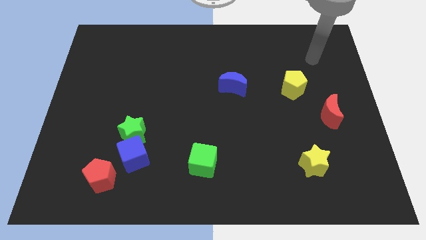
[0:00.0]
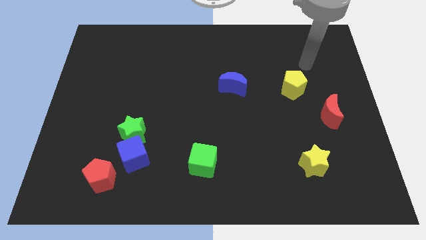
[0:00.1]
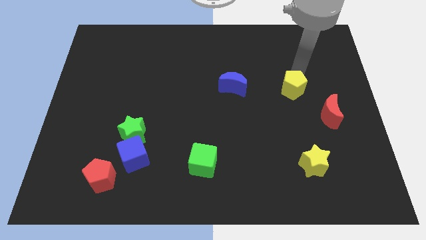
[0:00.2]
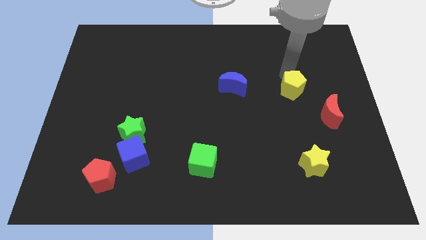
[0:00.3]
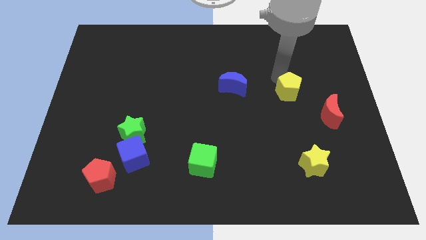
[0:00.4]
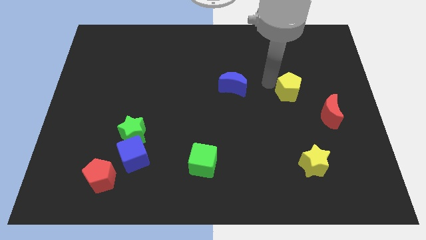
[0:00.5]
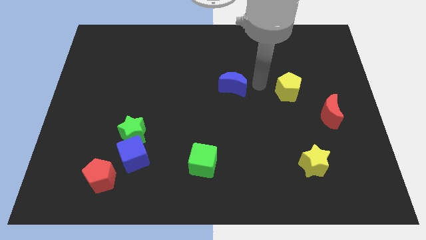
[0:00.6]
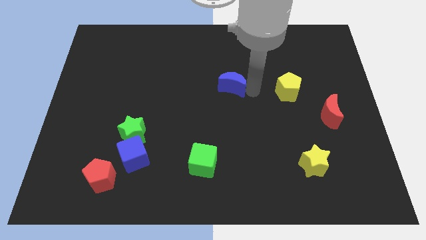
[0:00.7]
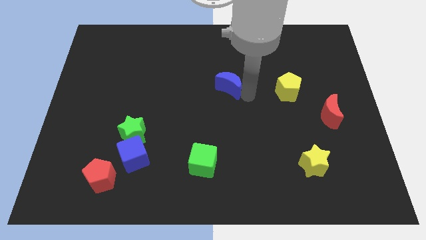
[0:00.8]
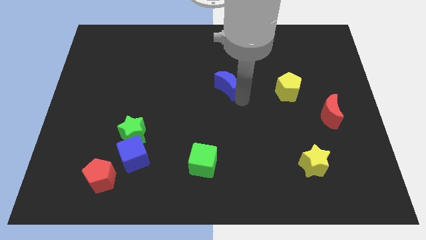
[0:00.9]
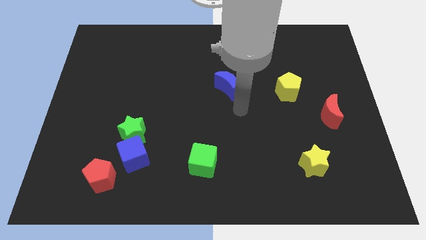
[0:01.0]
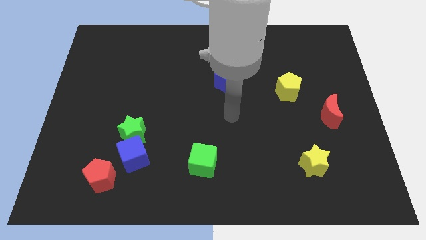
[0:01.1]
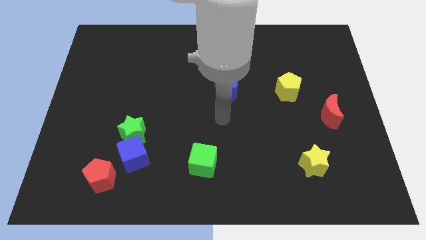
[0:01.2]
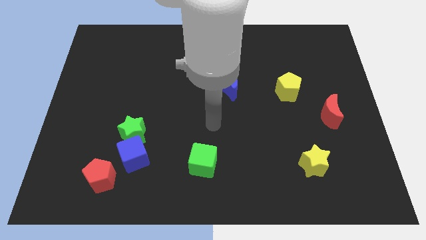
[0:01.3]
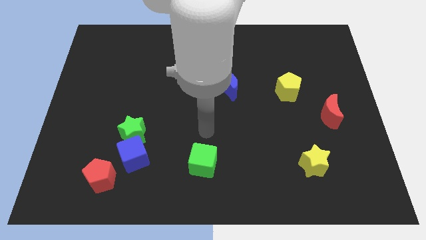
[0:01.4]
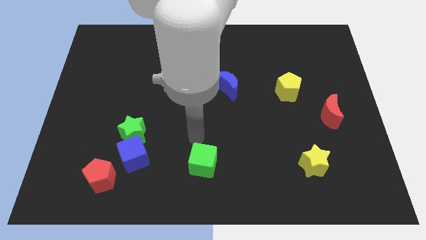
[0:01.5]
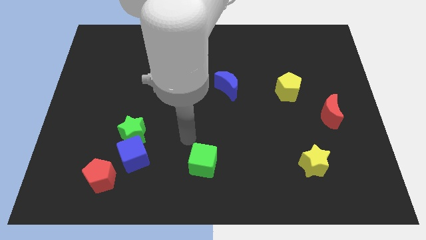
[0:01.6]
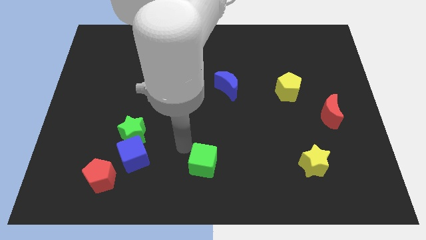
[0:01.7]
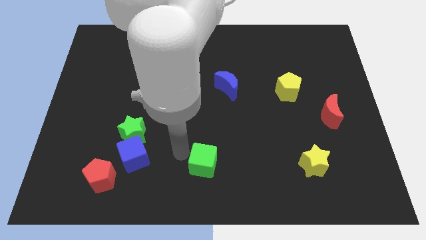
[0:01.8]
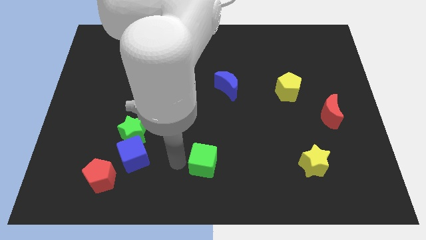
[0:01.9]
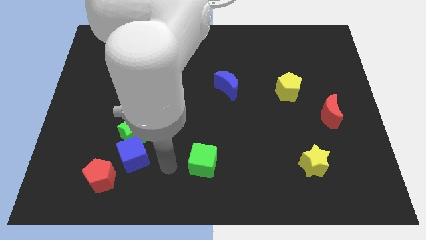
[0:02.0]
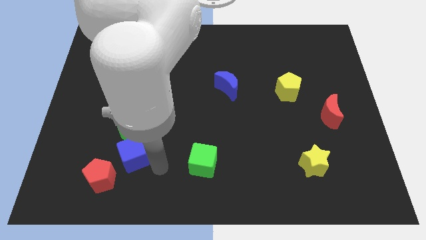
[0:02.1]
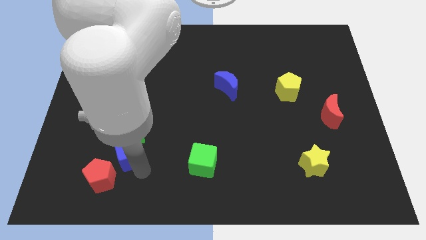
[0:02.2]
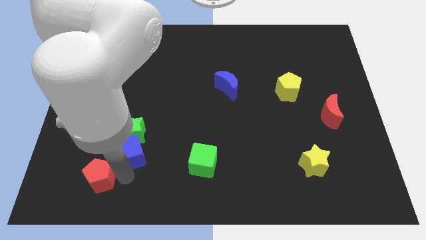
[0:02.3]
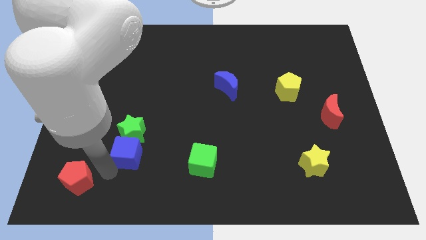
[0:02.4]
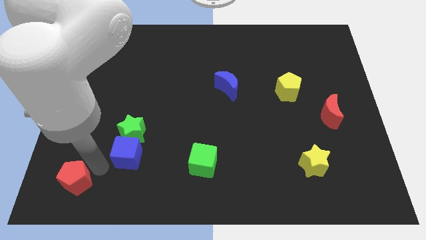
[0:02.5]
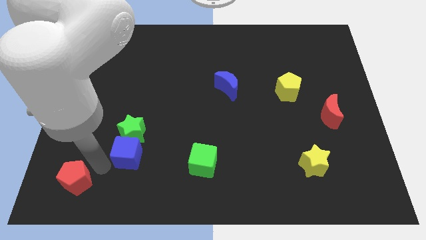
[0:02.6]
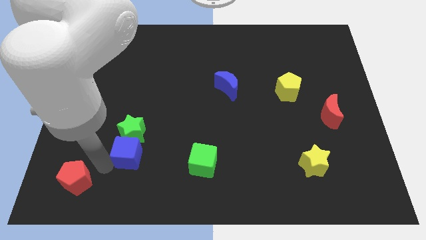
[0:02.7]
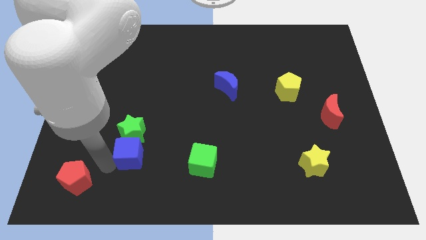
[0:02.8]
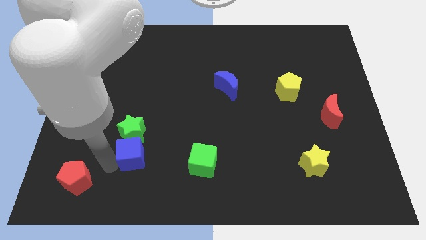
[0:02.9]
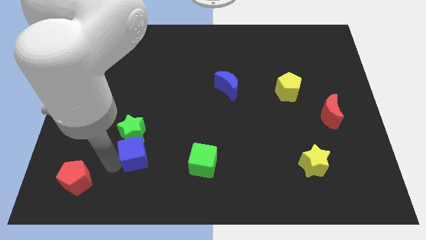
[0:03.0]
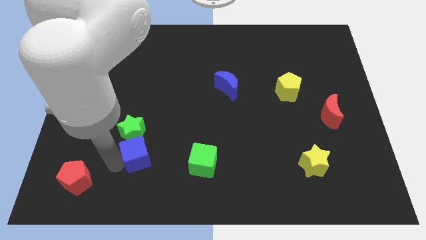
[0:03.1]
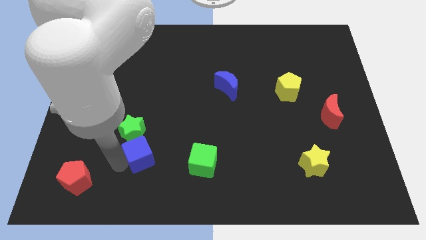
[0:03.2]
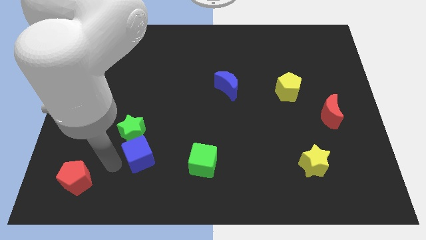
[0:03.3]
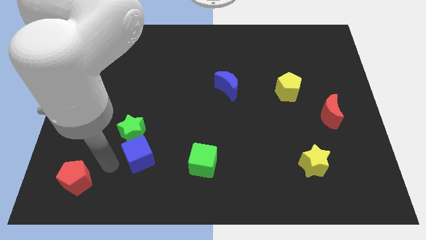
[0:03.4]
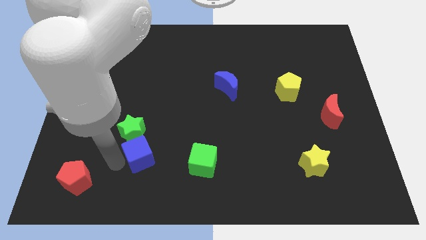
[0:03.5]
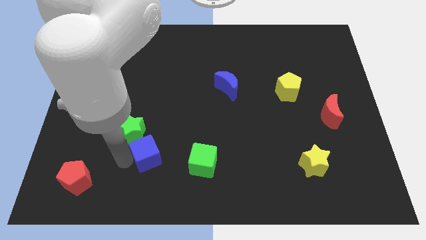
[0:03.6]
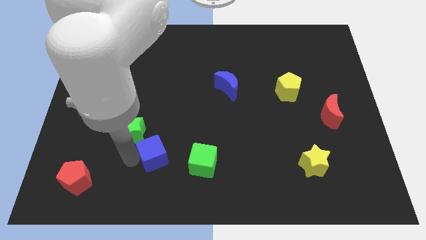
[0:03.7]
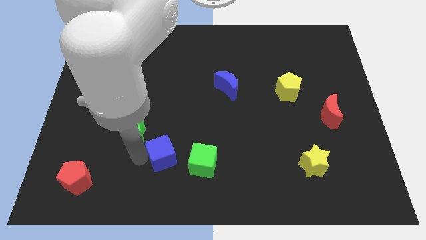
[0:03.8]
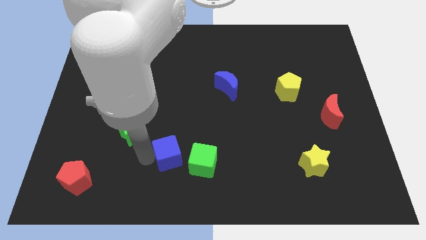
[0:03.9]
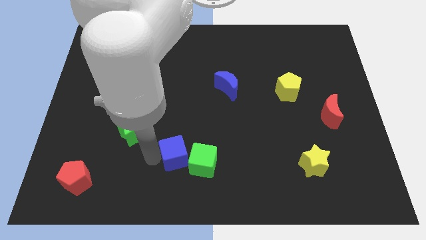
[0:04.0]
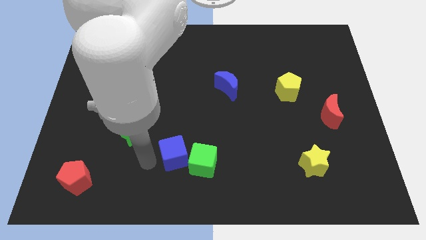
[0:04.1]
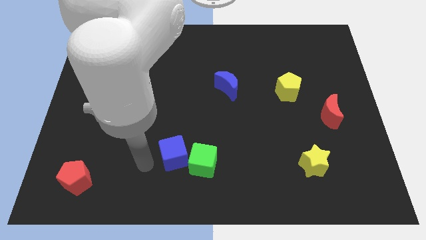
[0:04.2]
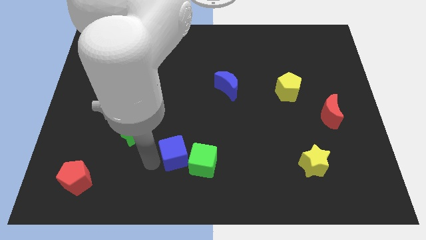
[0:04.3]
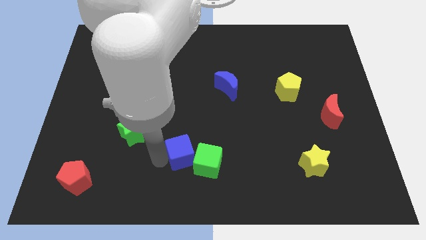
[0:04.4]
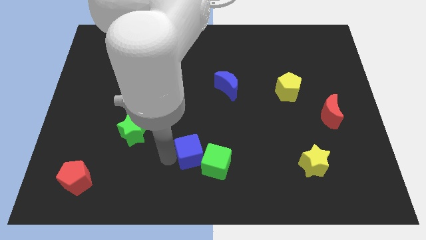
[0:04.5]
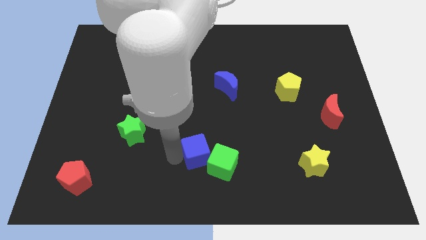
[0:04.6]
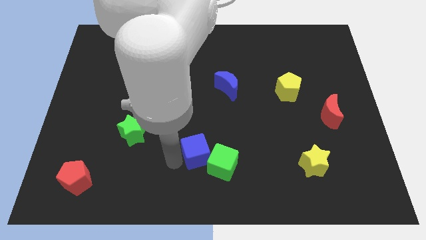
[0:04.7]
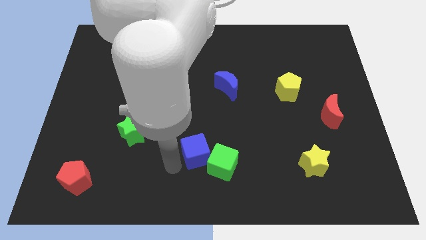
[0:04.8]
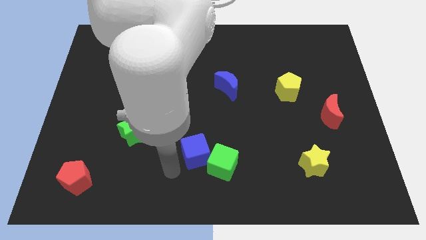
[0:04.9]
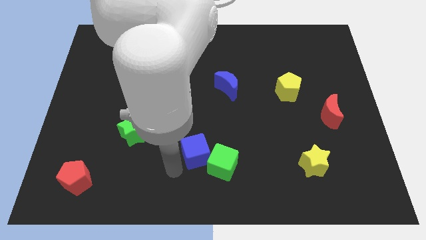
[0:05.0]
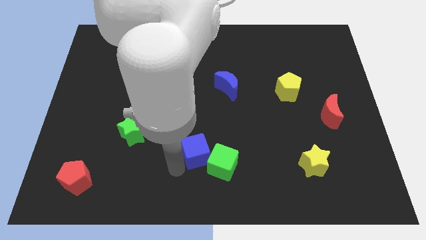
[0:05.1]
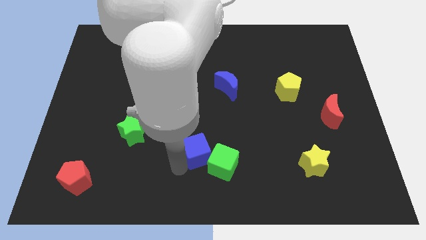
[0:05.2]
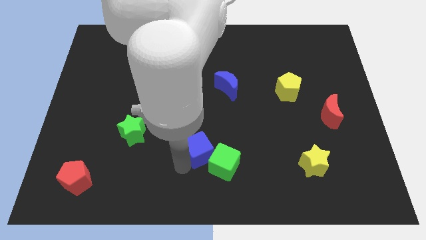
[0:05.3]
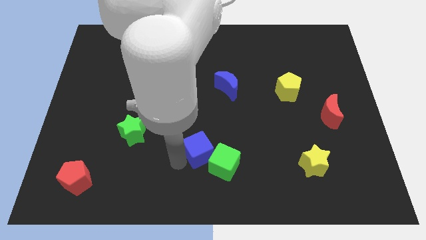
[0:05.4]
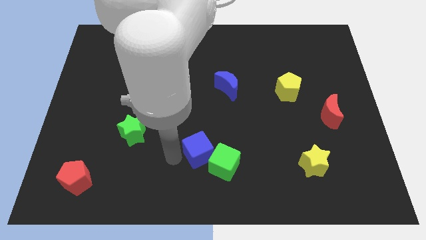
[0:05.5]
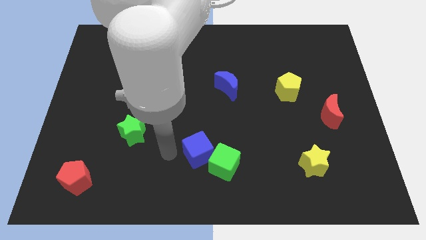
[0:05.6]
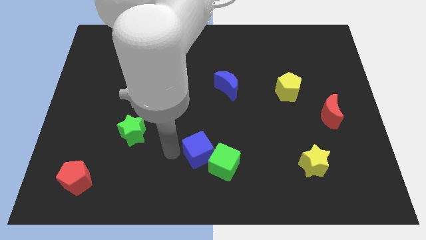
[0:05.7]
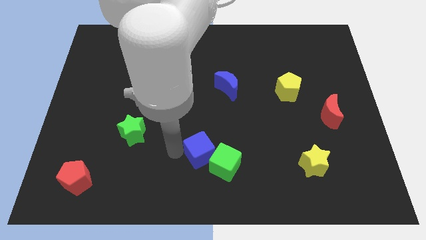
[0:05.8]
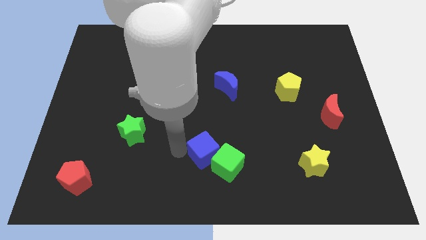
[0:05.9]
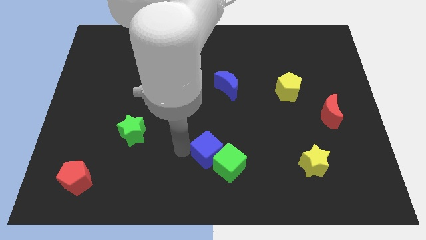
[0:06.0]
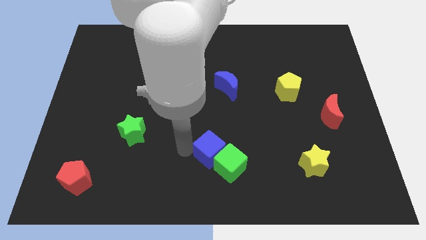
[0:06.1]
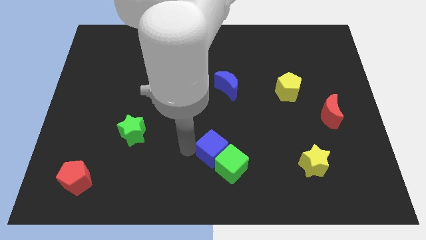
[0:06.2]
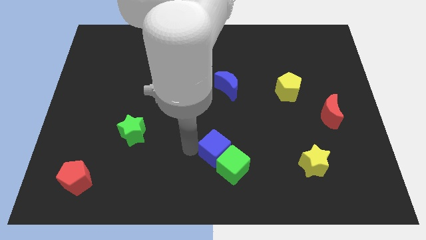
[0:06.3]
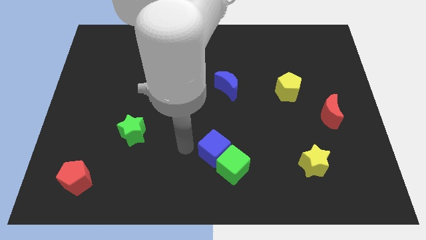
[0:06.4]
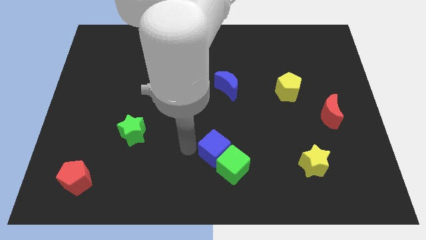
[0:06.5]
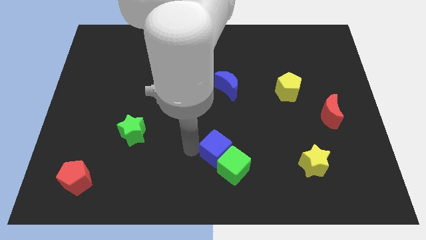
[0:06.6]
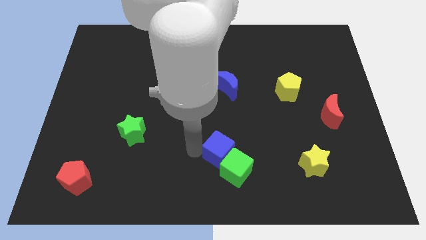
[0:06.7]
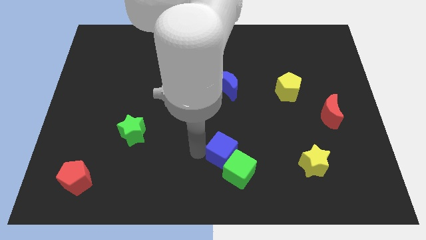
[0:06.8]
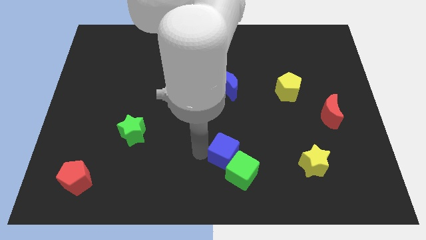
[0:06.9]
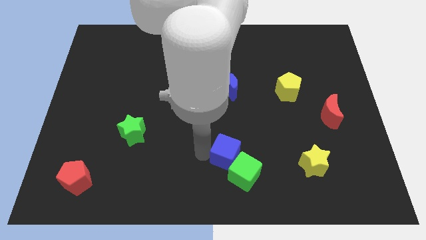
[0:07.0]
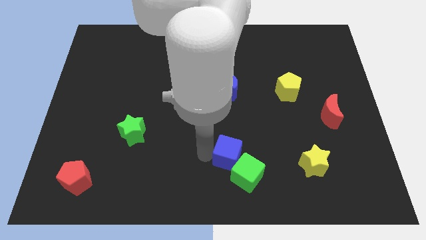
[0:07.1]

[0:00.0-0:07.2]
move the blue cube right

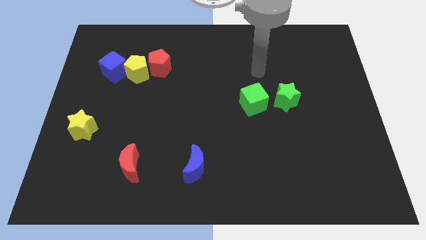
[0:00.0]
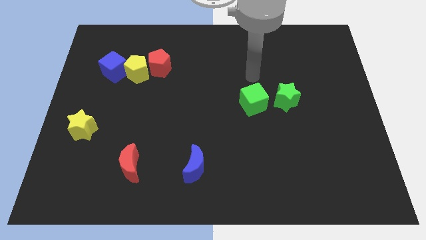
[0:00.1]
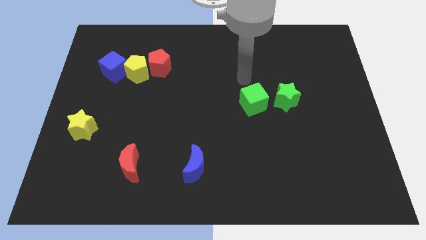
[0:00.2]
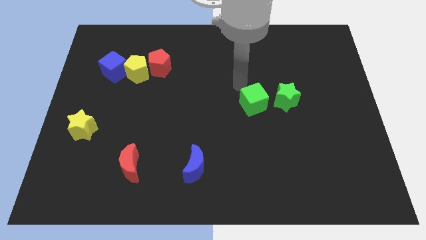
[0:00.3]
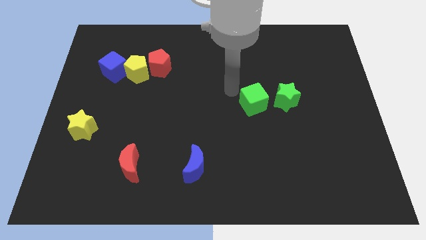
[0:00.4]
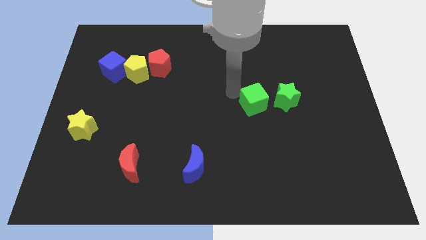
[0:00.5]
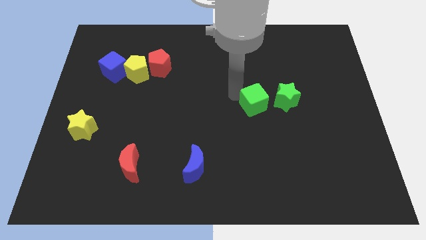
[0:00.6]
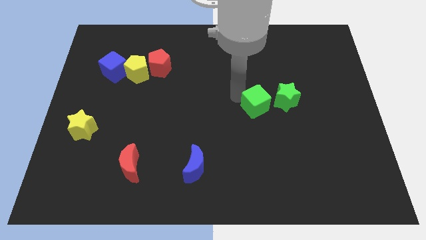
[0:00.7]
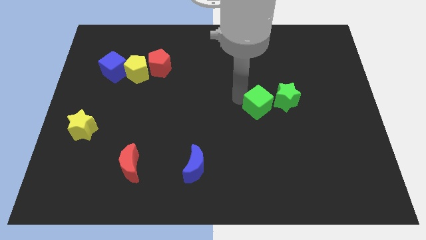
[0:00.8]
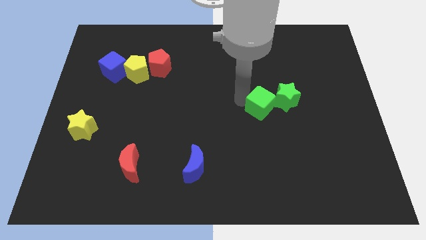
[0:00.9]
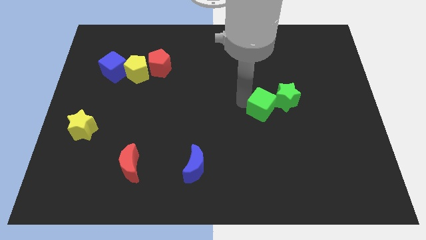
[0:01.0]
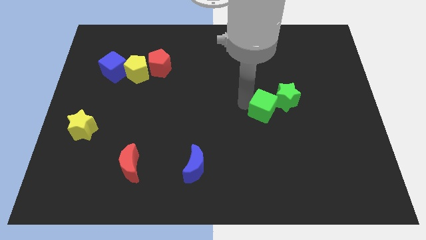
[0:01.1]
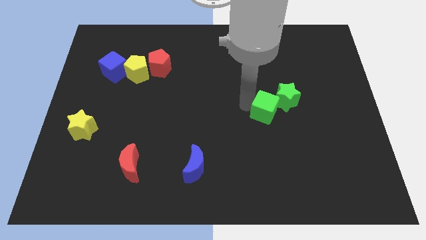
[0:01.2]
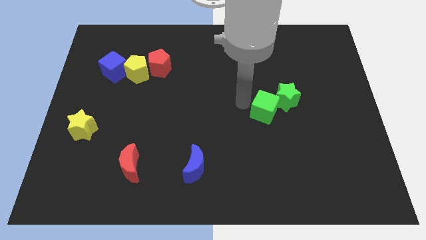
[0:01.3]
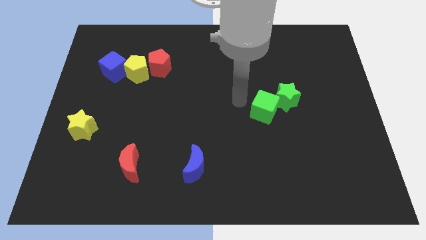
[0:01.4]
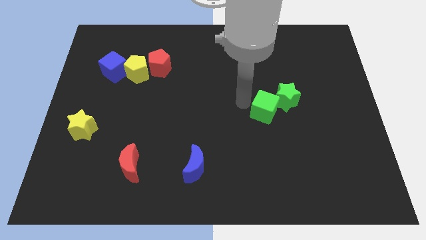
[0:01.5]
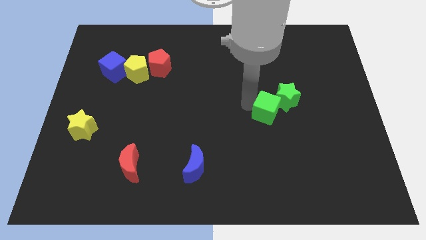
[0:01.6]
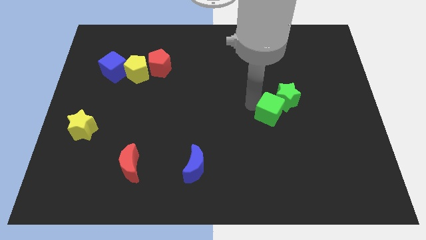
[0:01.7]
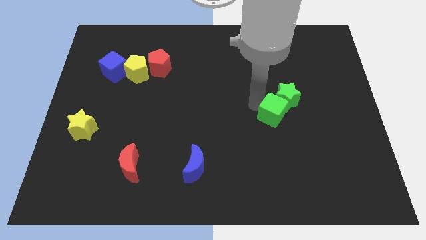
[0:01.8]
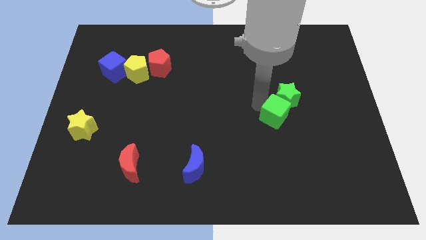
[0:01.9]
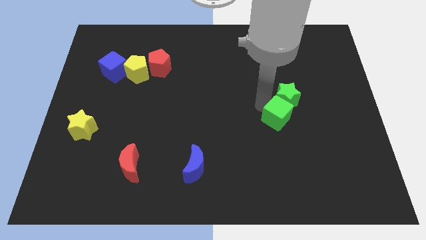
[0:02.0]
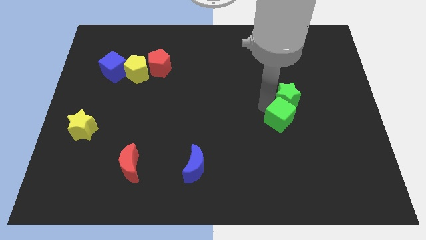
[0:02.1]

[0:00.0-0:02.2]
move the green cube downwards and to the right somewhat
